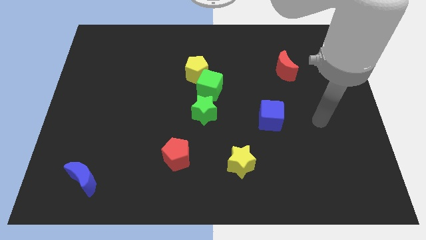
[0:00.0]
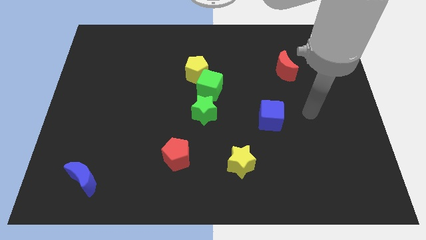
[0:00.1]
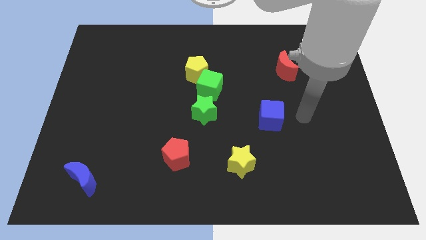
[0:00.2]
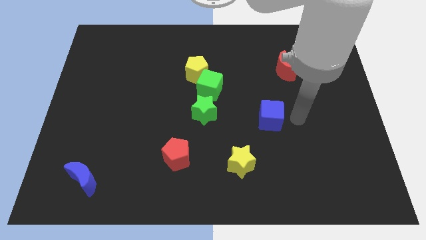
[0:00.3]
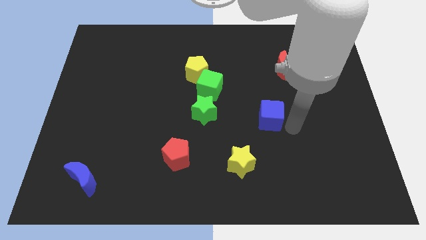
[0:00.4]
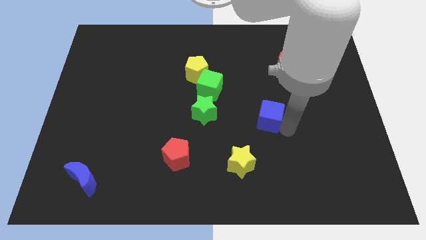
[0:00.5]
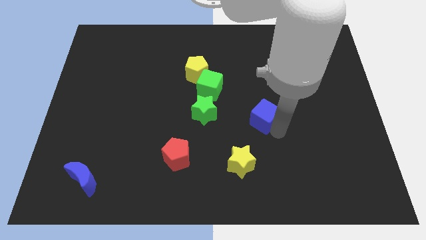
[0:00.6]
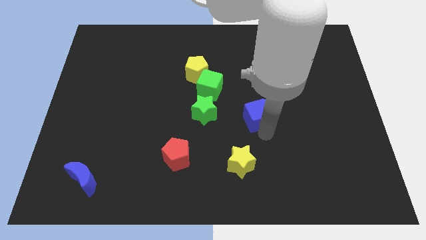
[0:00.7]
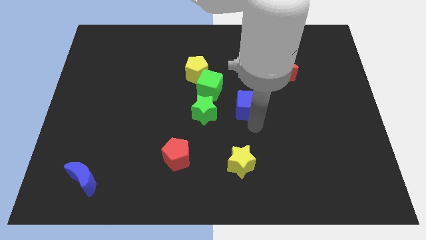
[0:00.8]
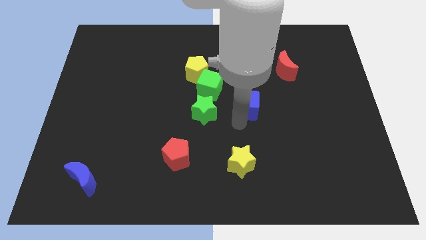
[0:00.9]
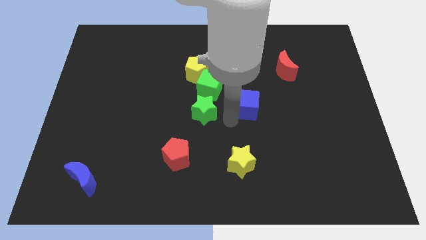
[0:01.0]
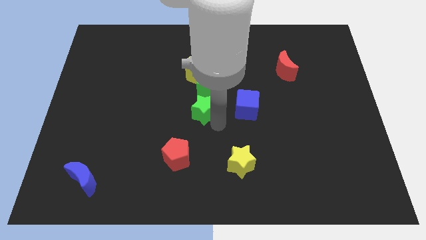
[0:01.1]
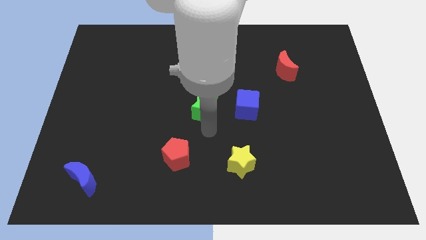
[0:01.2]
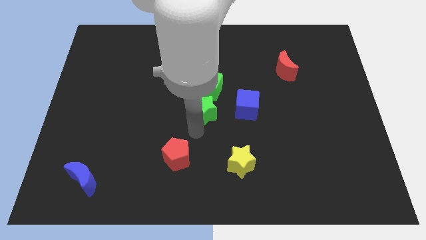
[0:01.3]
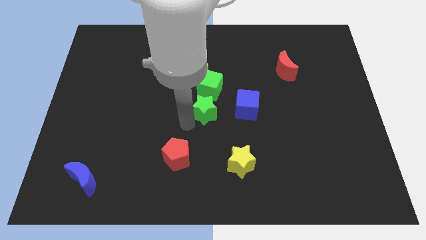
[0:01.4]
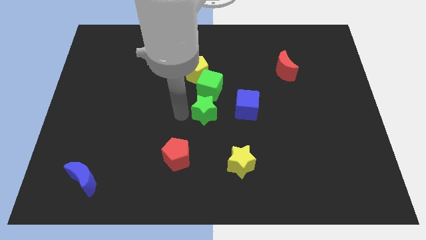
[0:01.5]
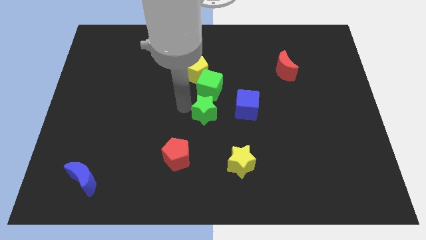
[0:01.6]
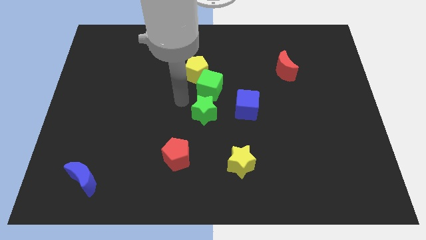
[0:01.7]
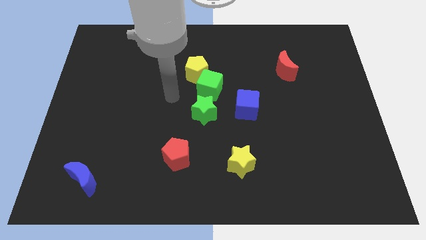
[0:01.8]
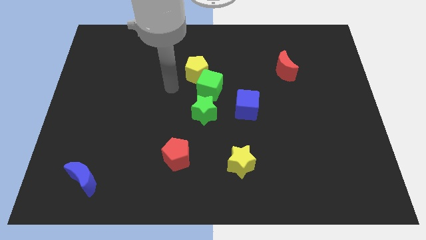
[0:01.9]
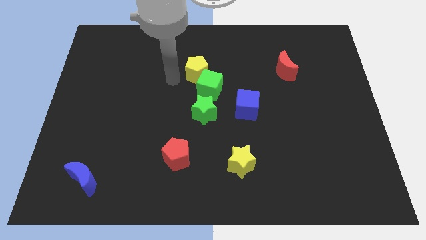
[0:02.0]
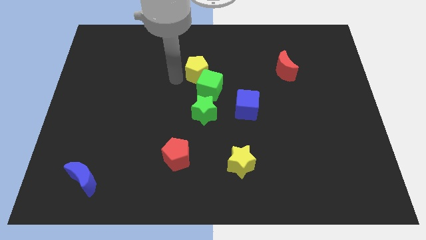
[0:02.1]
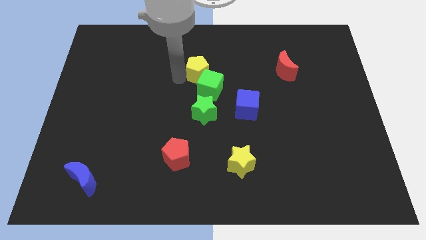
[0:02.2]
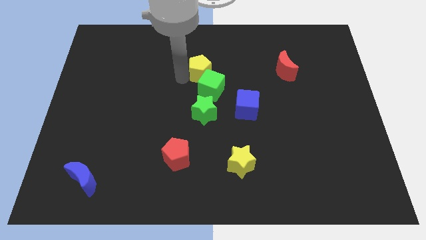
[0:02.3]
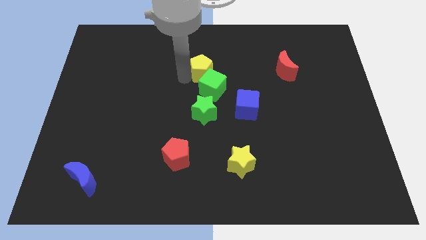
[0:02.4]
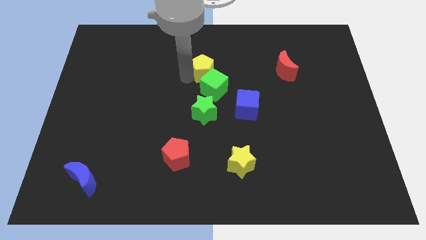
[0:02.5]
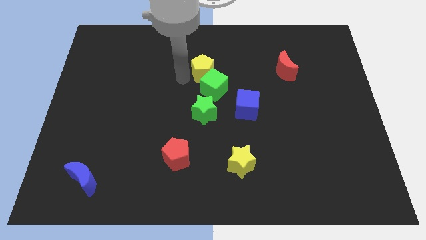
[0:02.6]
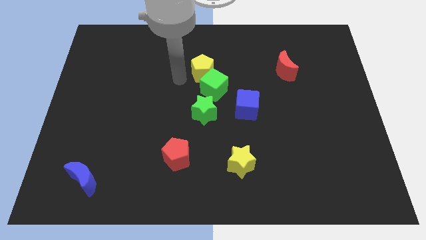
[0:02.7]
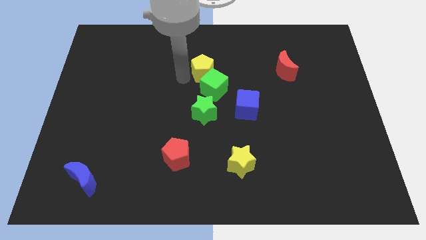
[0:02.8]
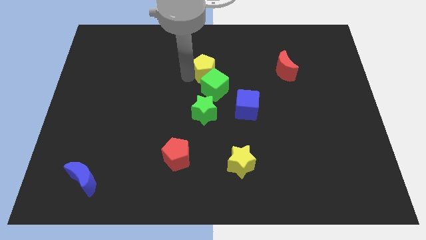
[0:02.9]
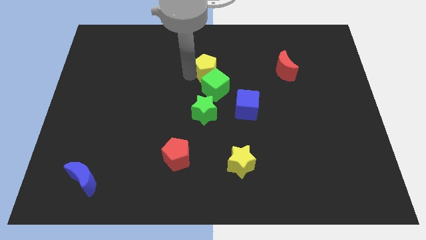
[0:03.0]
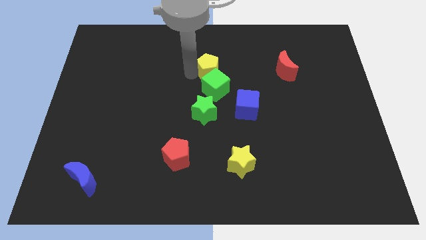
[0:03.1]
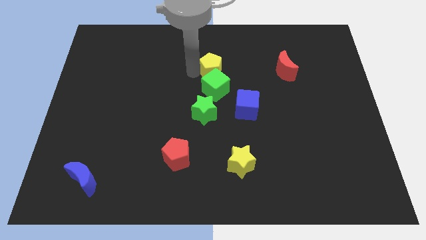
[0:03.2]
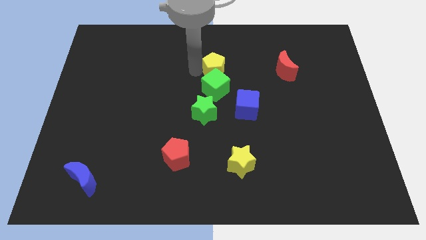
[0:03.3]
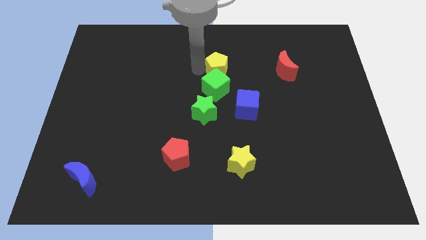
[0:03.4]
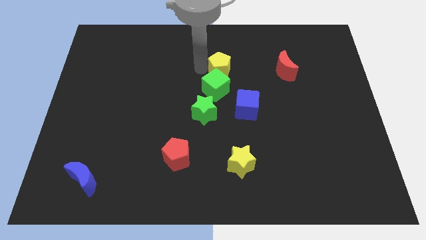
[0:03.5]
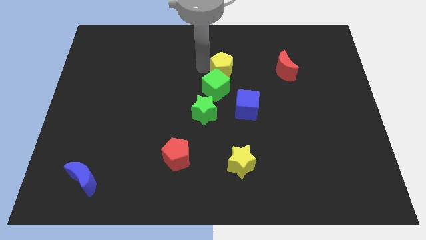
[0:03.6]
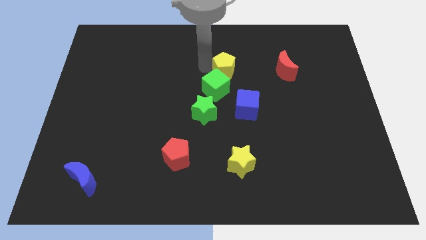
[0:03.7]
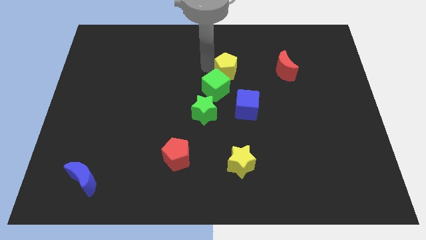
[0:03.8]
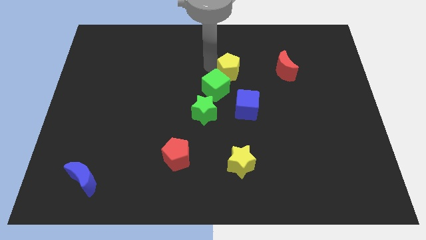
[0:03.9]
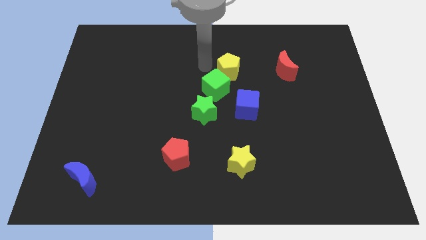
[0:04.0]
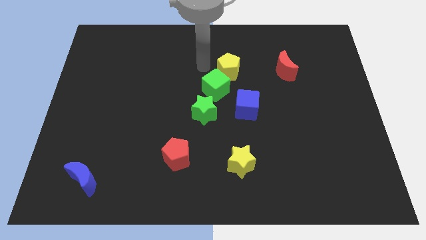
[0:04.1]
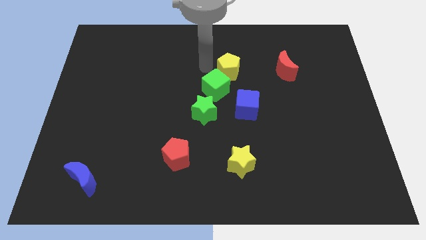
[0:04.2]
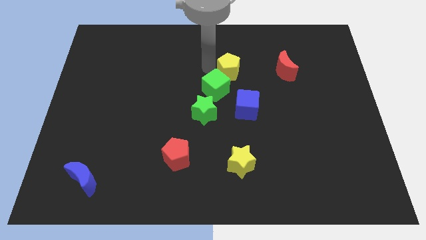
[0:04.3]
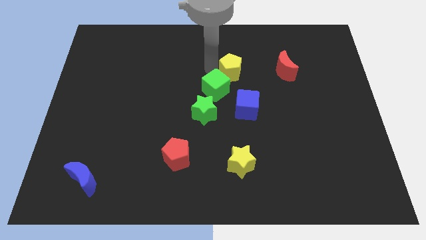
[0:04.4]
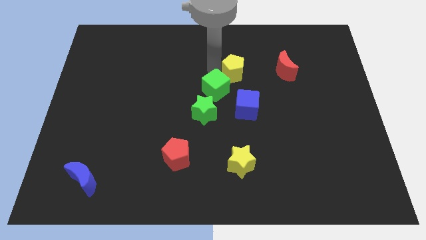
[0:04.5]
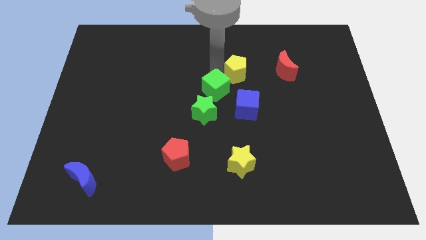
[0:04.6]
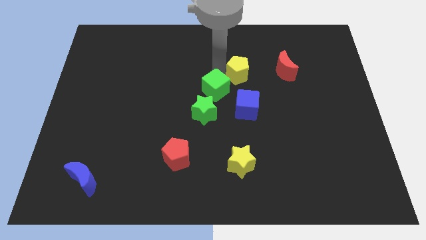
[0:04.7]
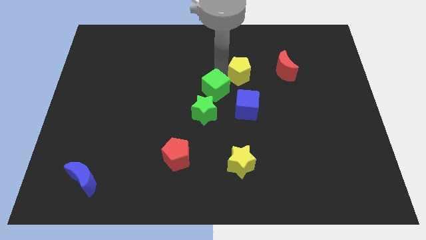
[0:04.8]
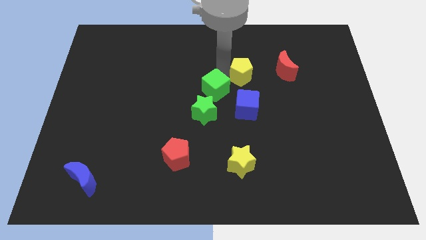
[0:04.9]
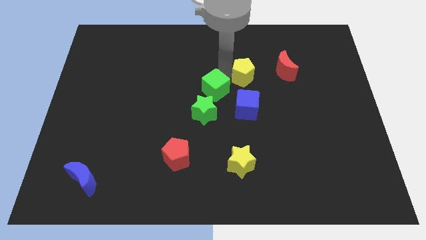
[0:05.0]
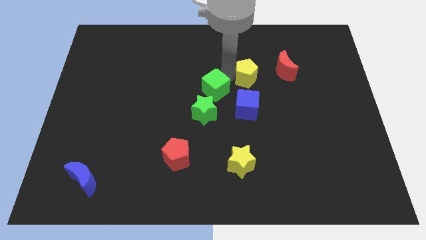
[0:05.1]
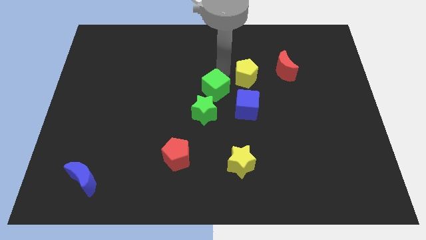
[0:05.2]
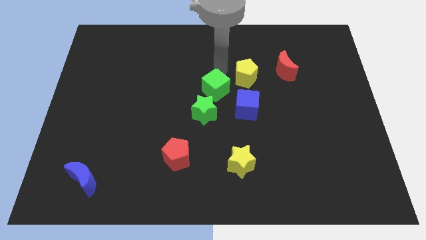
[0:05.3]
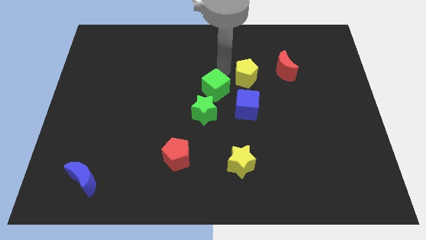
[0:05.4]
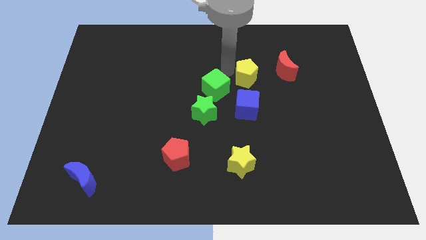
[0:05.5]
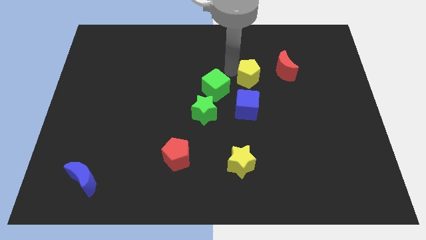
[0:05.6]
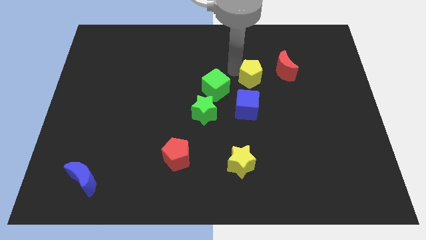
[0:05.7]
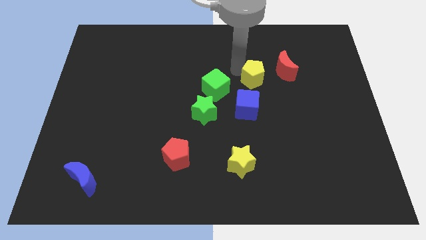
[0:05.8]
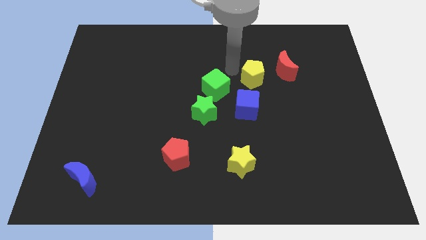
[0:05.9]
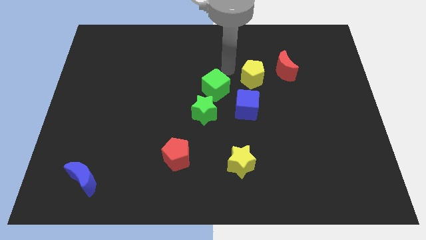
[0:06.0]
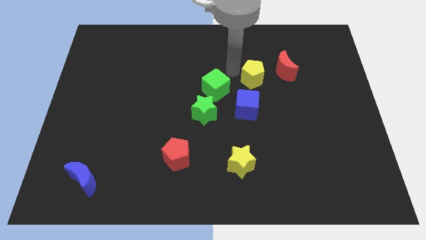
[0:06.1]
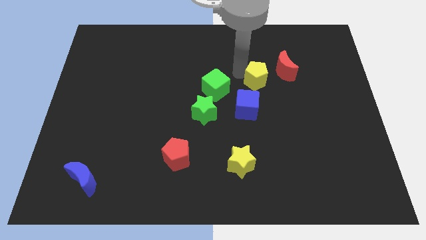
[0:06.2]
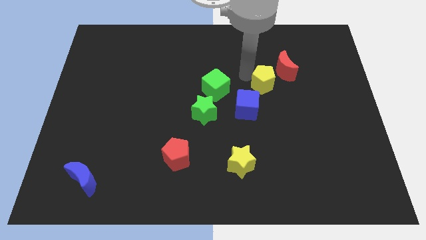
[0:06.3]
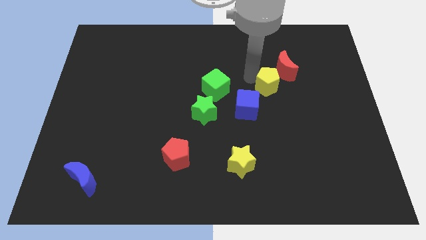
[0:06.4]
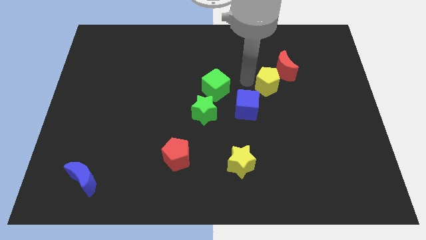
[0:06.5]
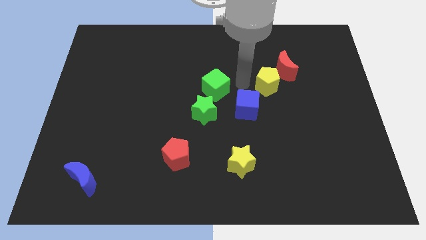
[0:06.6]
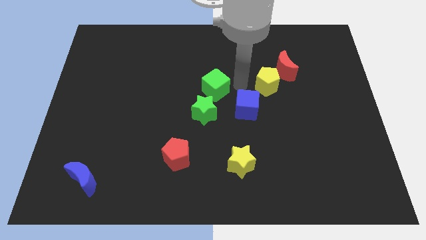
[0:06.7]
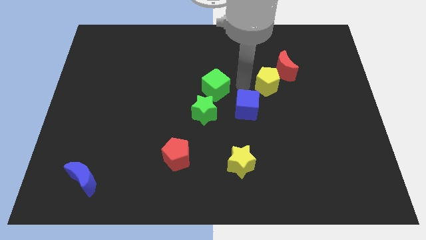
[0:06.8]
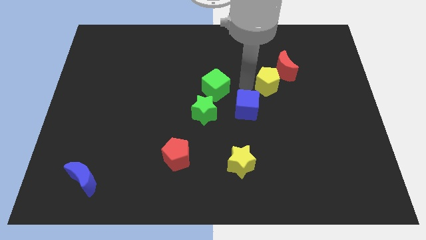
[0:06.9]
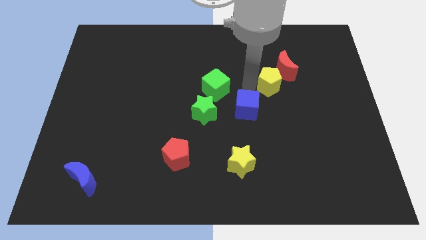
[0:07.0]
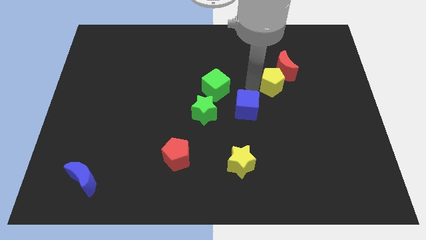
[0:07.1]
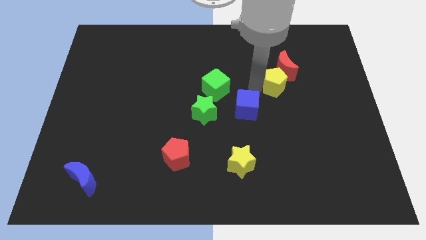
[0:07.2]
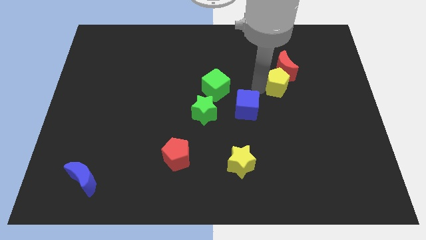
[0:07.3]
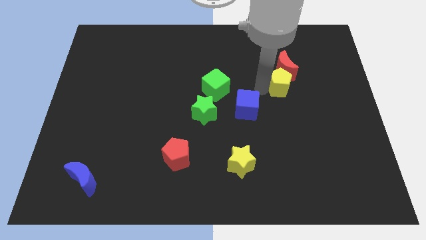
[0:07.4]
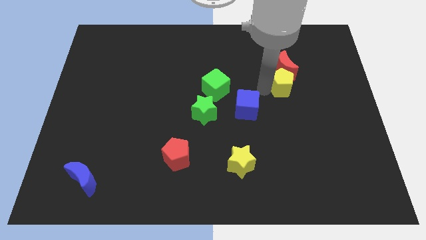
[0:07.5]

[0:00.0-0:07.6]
move the yellow pentagon right

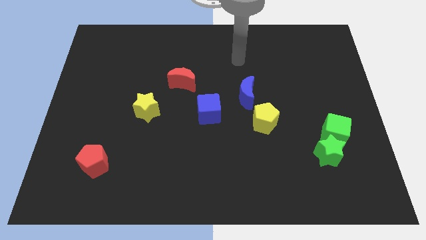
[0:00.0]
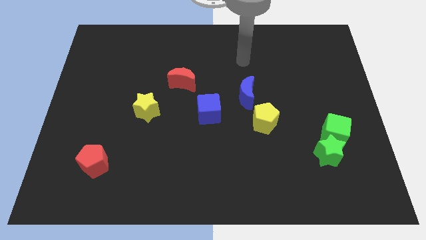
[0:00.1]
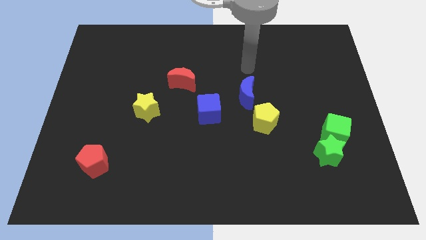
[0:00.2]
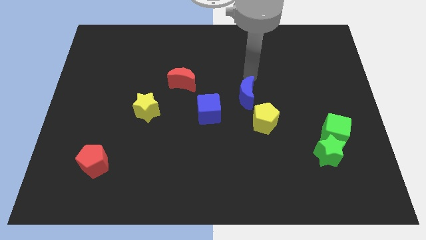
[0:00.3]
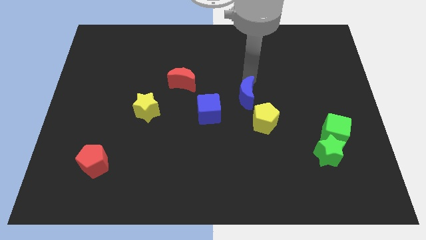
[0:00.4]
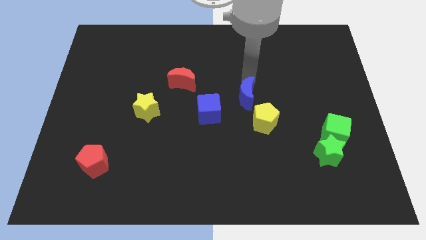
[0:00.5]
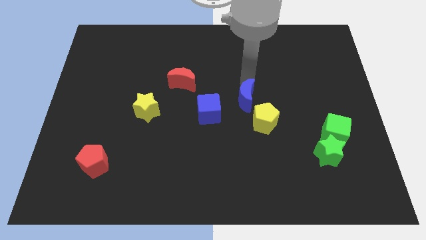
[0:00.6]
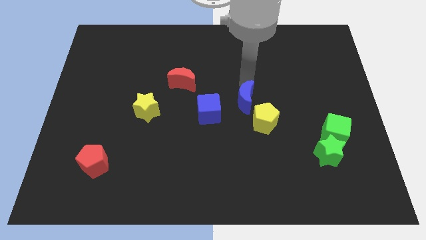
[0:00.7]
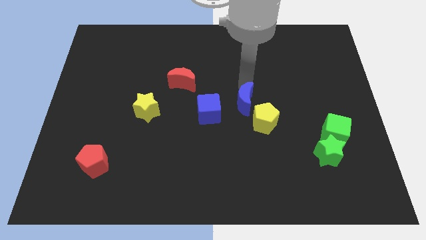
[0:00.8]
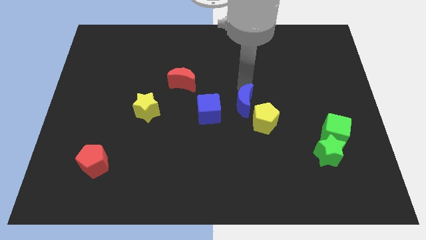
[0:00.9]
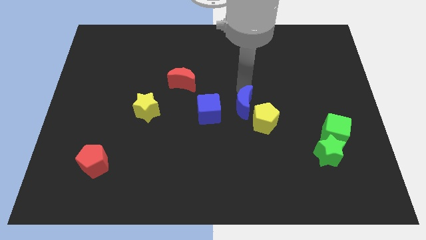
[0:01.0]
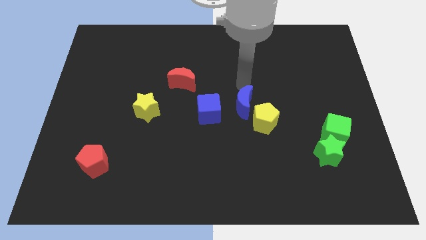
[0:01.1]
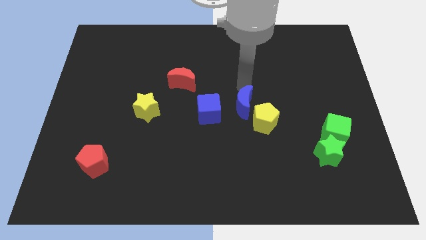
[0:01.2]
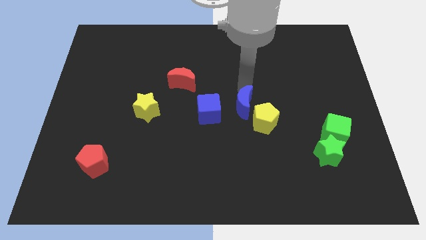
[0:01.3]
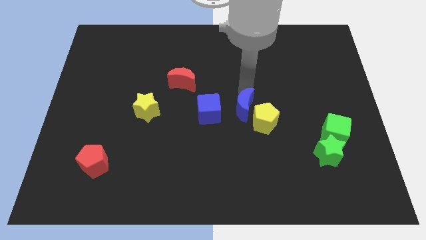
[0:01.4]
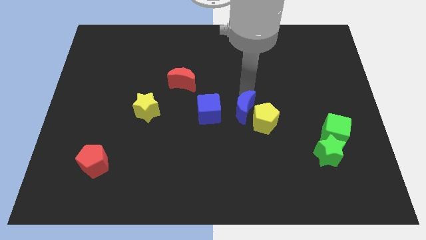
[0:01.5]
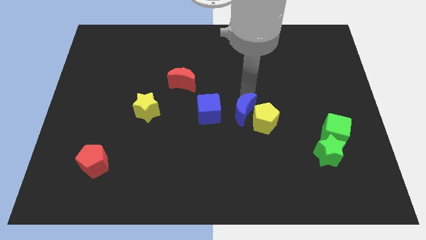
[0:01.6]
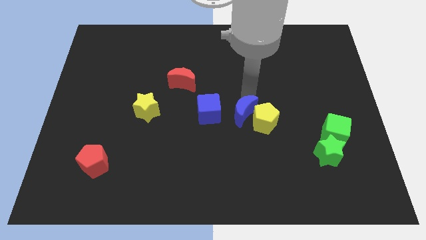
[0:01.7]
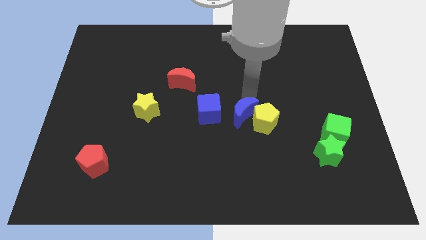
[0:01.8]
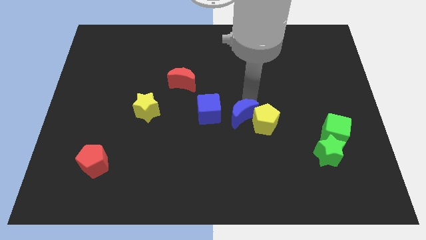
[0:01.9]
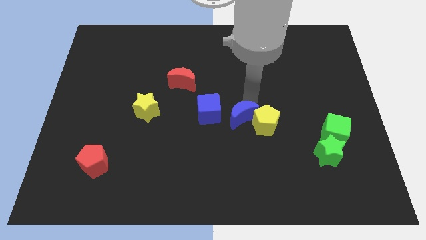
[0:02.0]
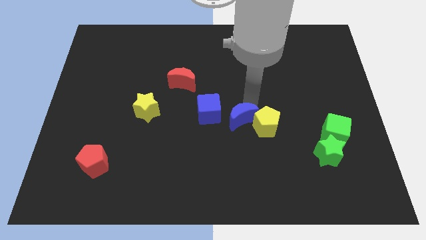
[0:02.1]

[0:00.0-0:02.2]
slightly move the blue moon down
